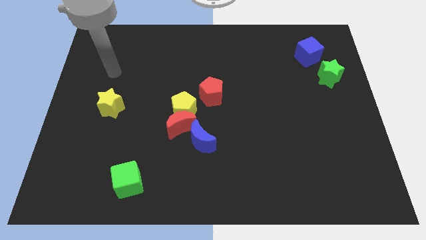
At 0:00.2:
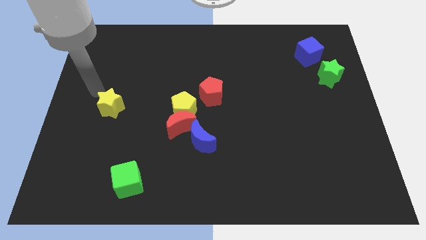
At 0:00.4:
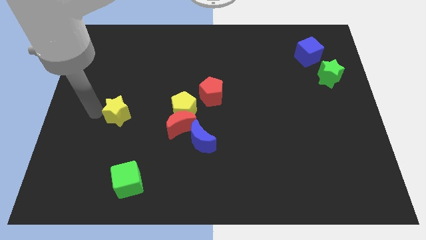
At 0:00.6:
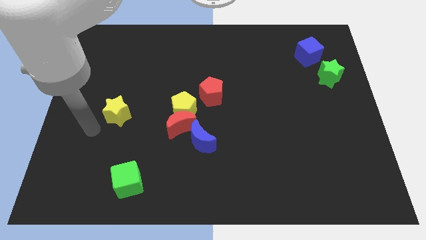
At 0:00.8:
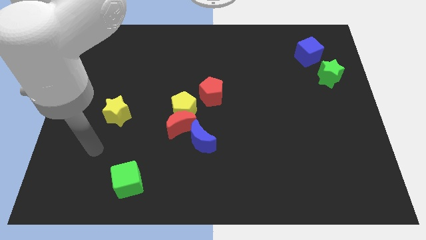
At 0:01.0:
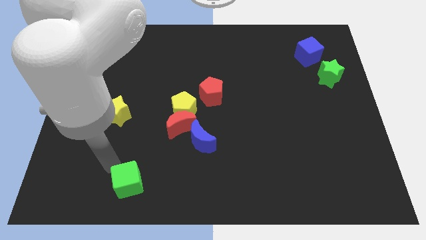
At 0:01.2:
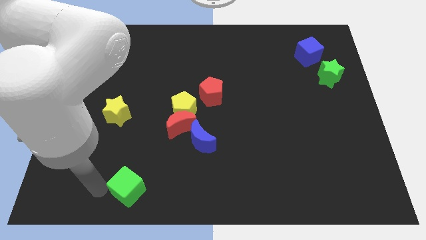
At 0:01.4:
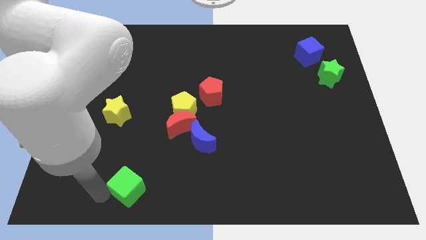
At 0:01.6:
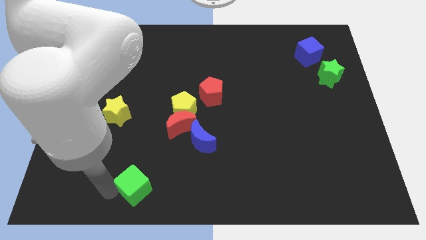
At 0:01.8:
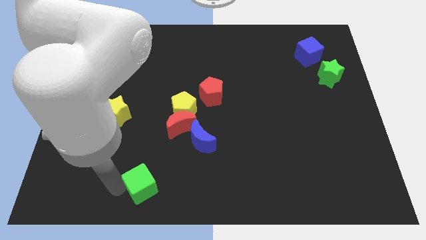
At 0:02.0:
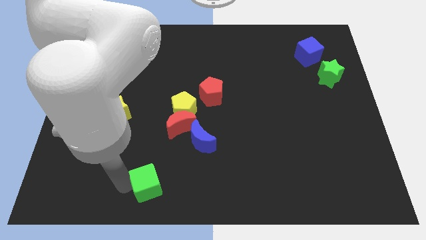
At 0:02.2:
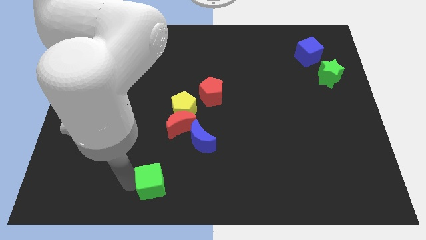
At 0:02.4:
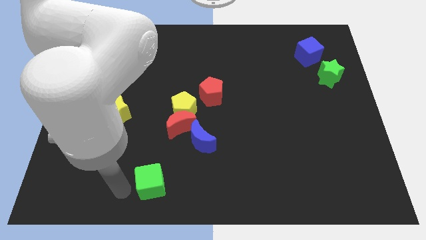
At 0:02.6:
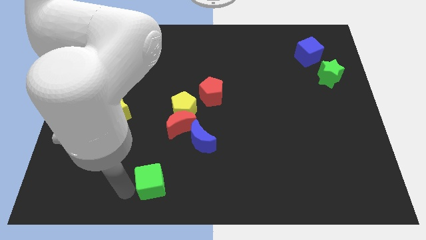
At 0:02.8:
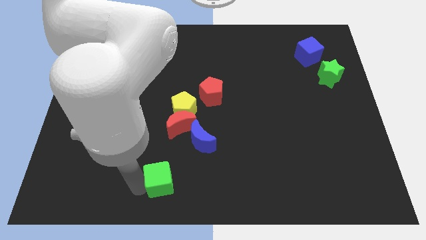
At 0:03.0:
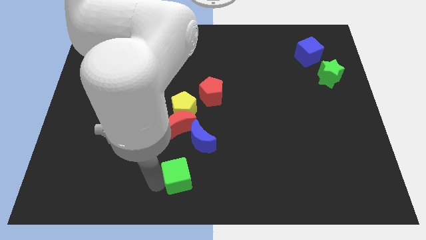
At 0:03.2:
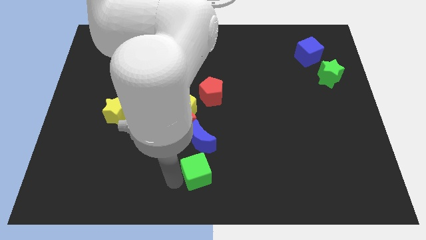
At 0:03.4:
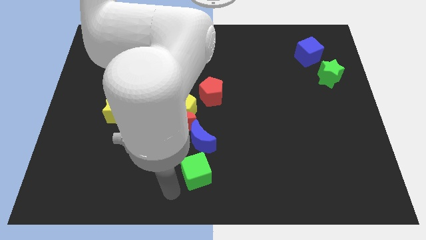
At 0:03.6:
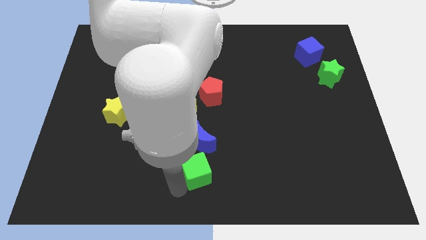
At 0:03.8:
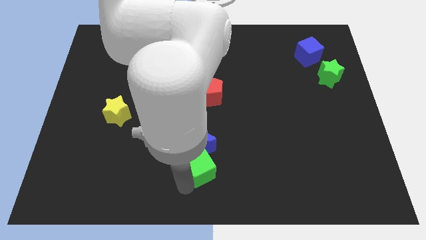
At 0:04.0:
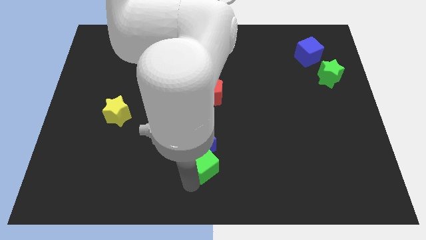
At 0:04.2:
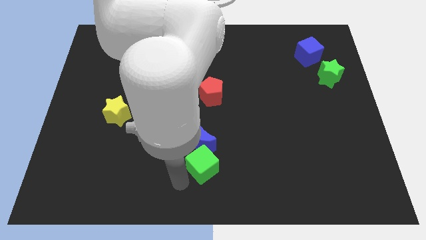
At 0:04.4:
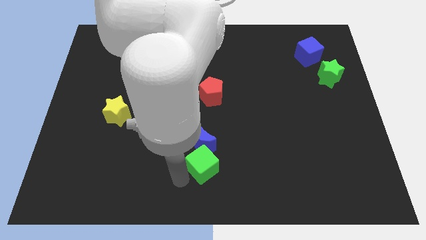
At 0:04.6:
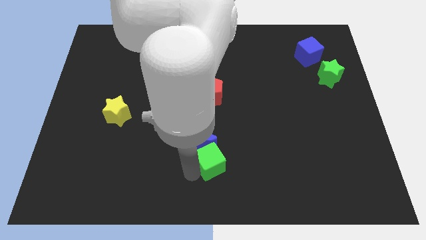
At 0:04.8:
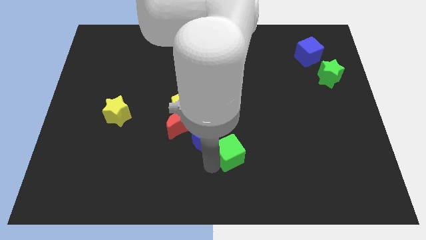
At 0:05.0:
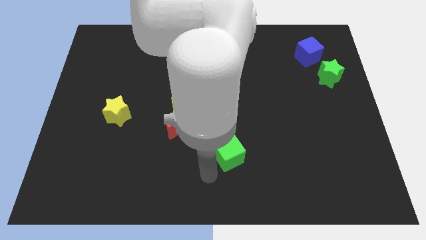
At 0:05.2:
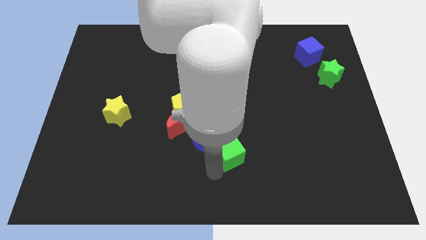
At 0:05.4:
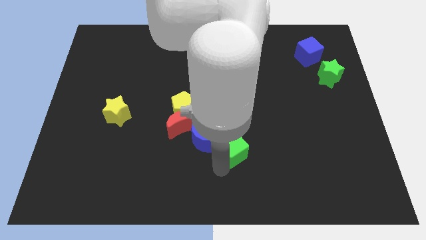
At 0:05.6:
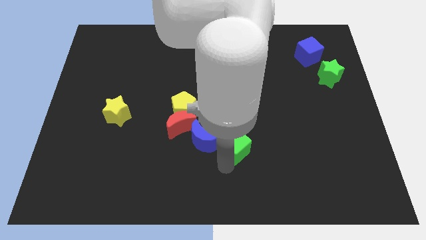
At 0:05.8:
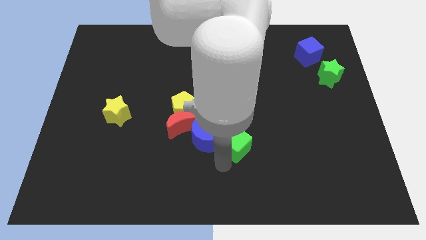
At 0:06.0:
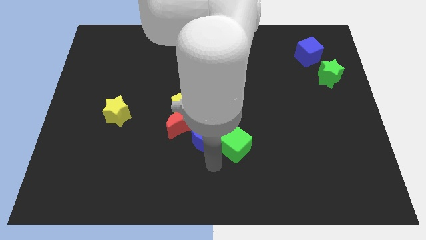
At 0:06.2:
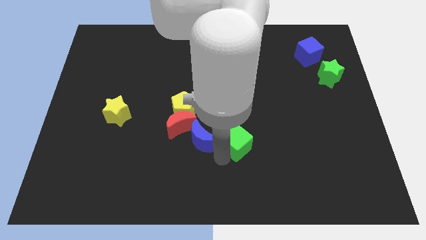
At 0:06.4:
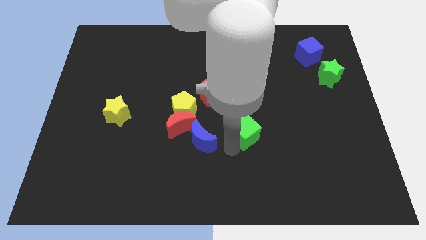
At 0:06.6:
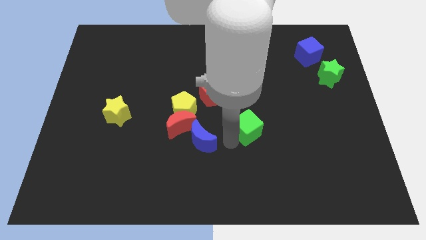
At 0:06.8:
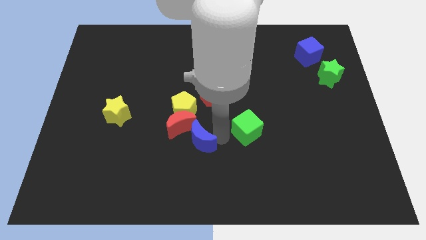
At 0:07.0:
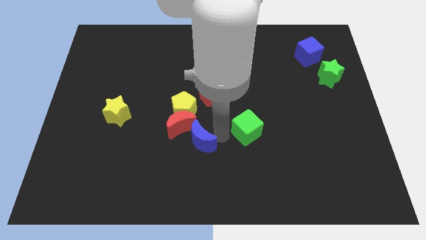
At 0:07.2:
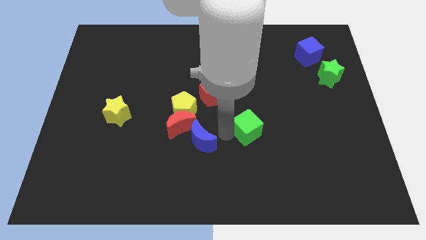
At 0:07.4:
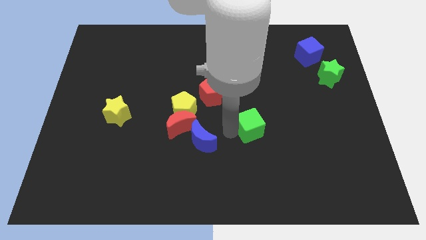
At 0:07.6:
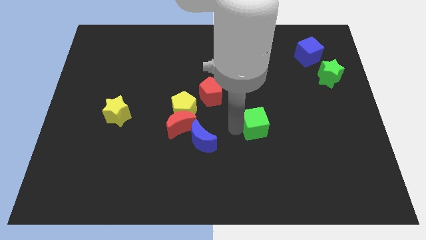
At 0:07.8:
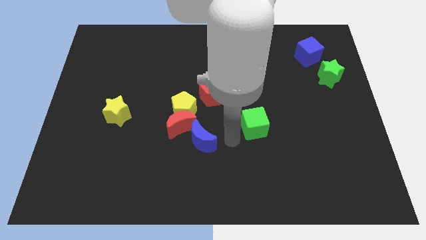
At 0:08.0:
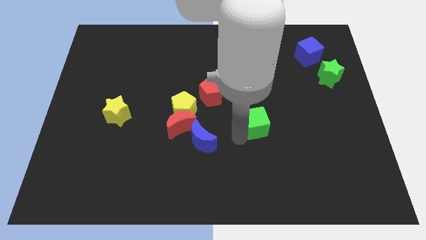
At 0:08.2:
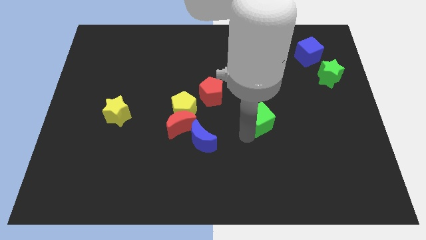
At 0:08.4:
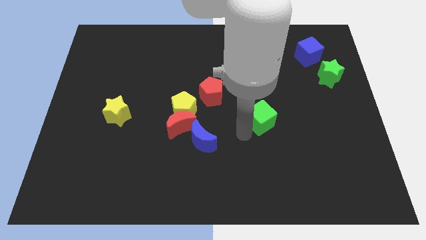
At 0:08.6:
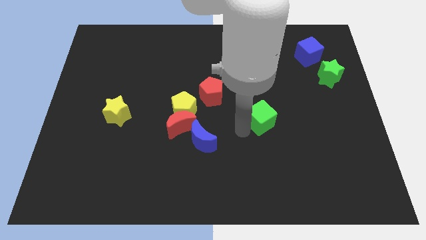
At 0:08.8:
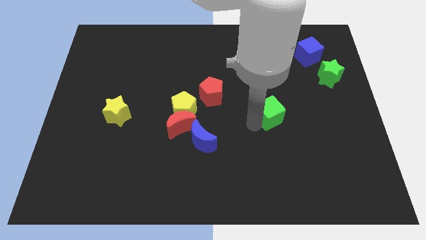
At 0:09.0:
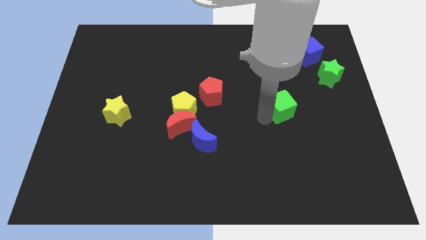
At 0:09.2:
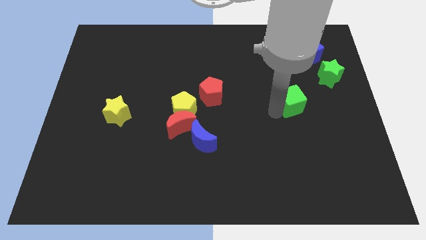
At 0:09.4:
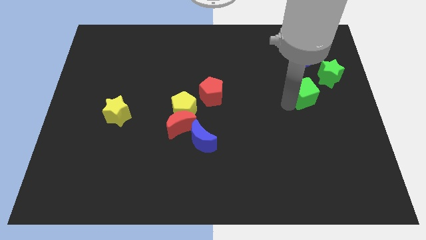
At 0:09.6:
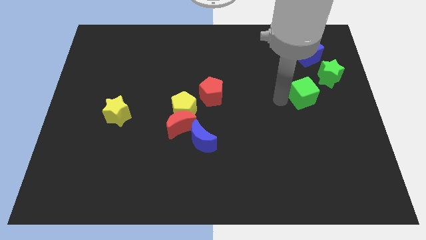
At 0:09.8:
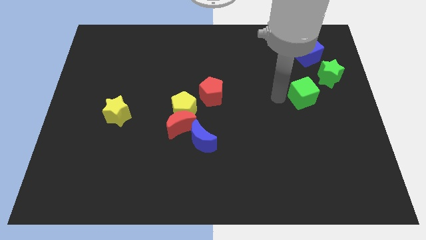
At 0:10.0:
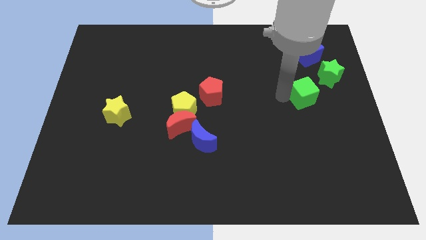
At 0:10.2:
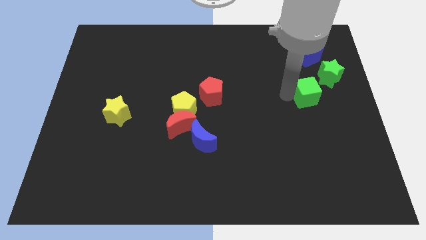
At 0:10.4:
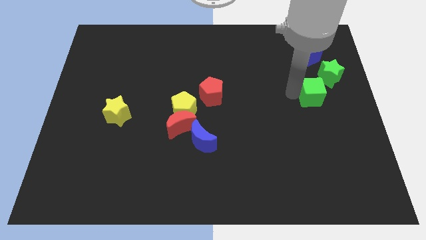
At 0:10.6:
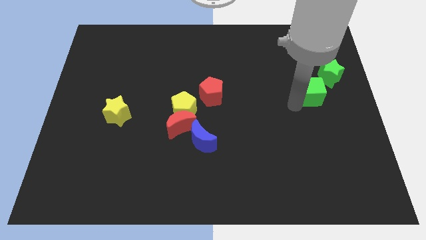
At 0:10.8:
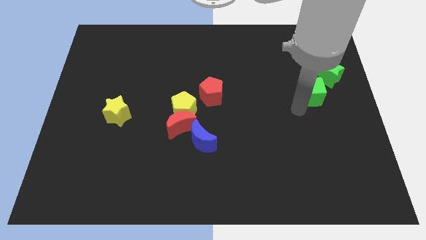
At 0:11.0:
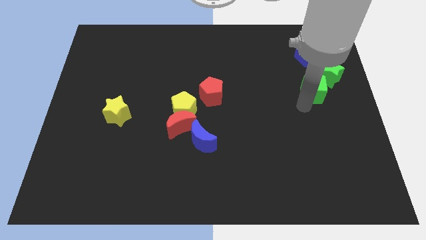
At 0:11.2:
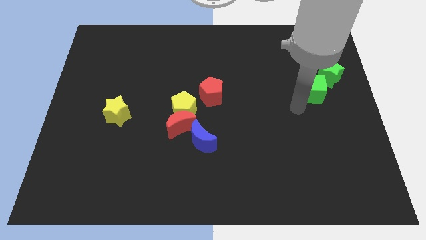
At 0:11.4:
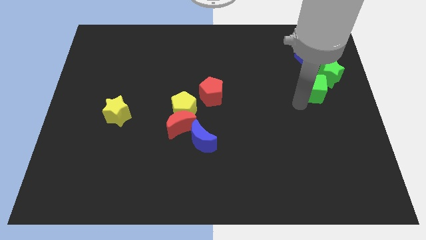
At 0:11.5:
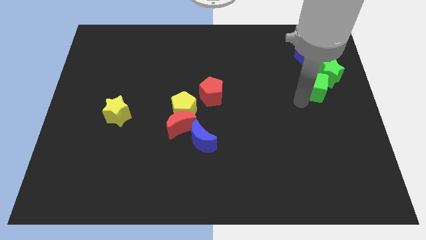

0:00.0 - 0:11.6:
put the green cube towards the green star

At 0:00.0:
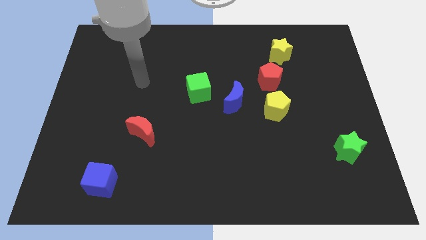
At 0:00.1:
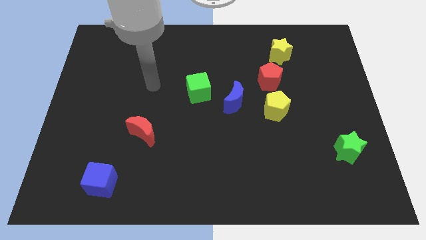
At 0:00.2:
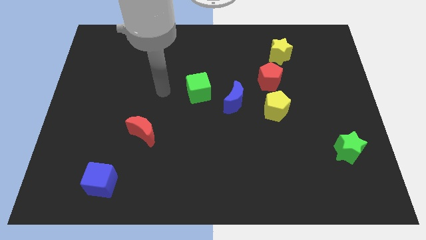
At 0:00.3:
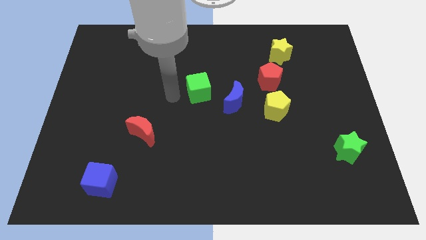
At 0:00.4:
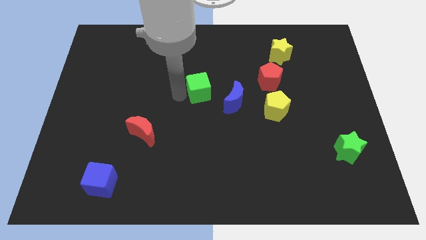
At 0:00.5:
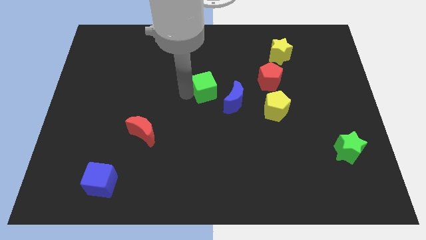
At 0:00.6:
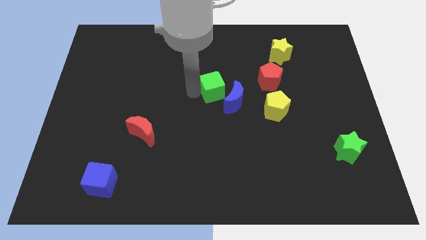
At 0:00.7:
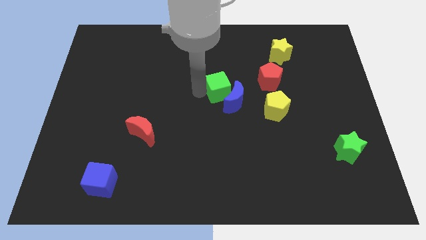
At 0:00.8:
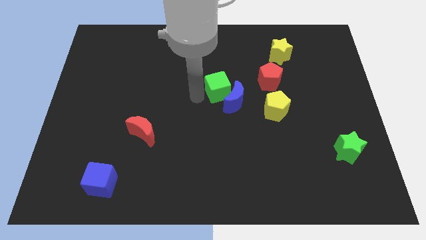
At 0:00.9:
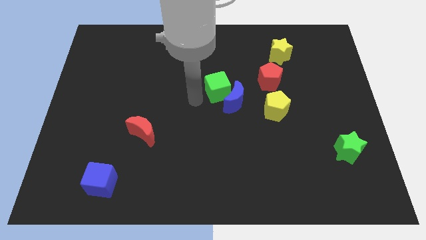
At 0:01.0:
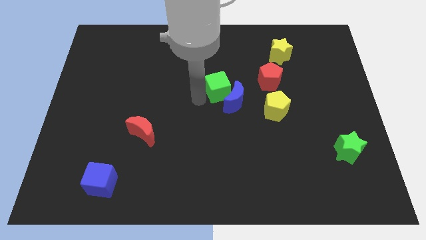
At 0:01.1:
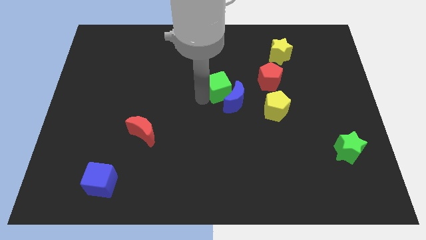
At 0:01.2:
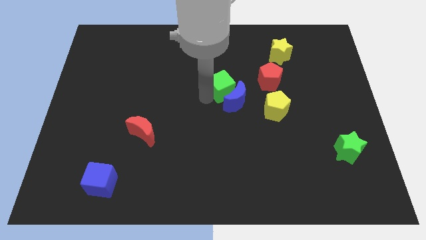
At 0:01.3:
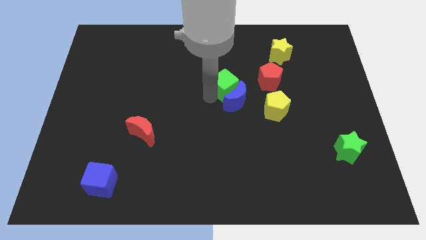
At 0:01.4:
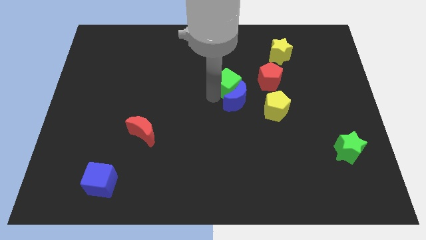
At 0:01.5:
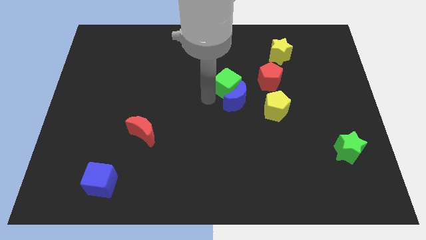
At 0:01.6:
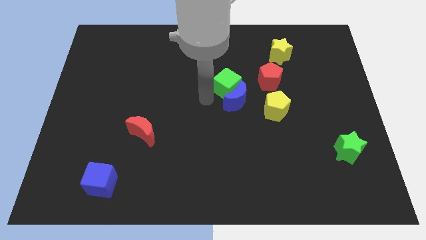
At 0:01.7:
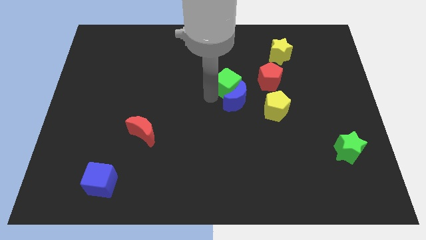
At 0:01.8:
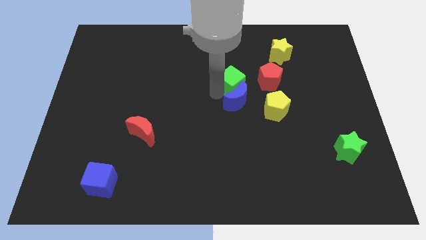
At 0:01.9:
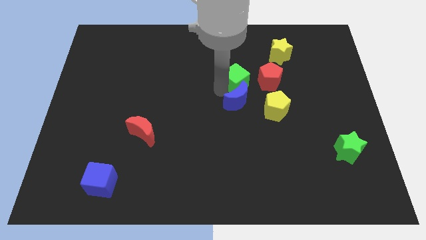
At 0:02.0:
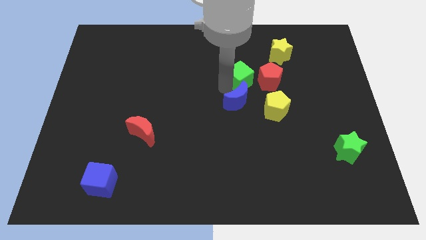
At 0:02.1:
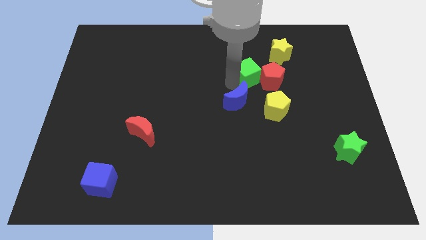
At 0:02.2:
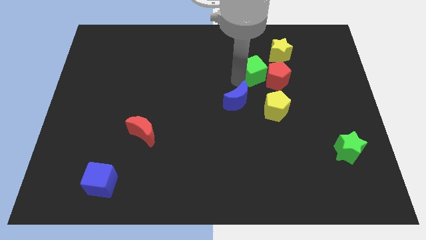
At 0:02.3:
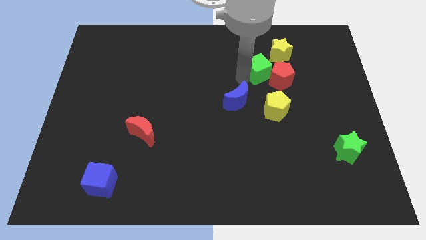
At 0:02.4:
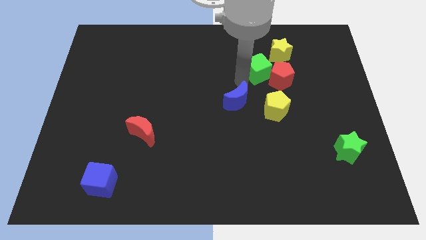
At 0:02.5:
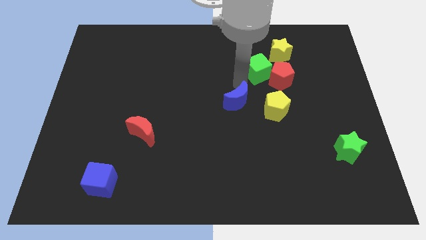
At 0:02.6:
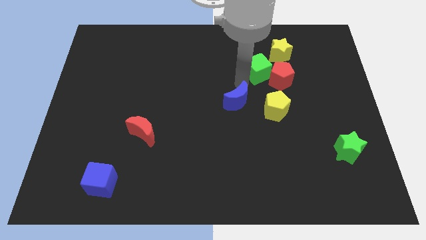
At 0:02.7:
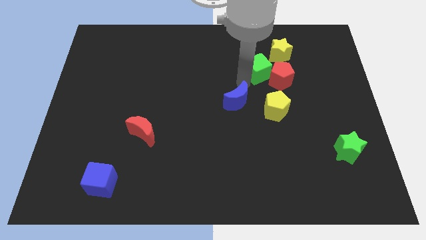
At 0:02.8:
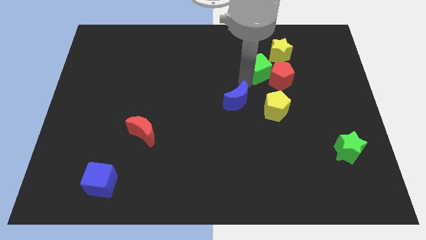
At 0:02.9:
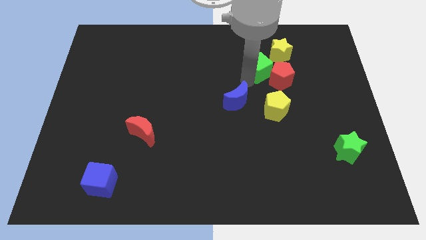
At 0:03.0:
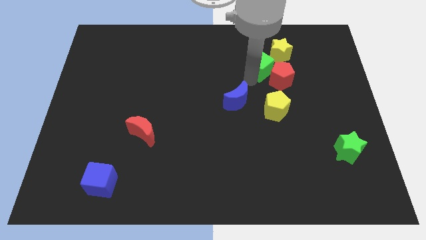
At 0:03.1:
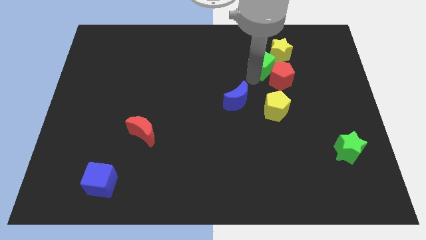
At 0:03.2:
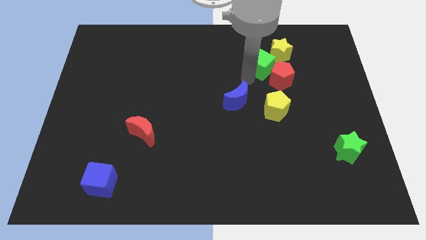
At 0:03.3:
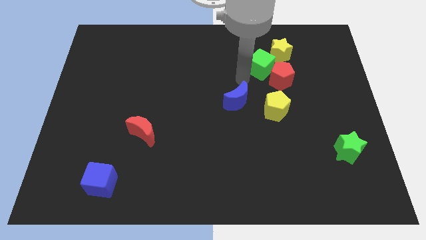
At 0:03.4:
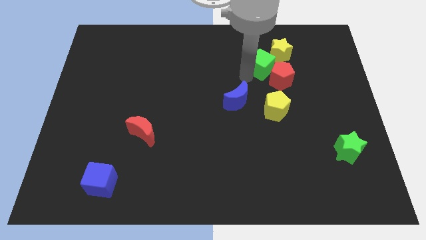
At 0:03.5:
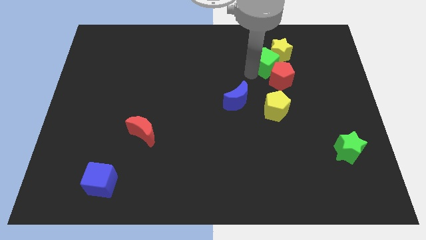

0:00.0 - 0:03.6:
move the green cube close to the yellow star
